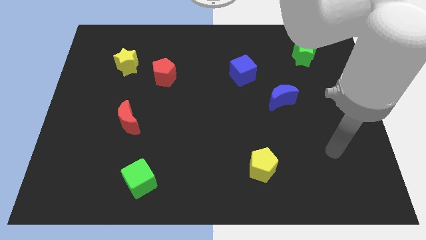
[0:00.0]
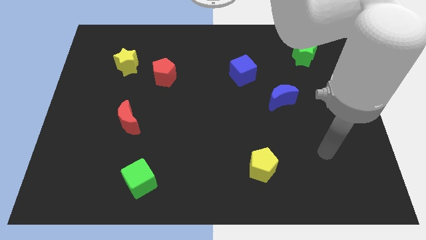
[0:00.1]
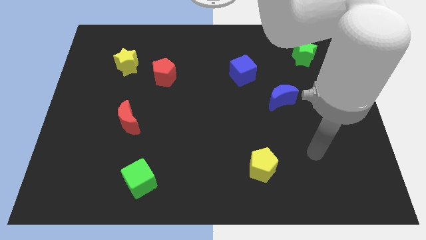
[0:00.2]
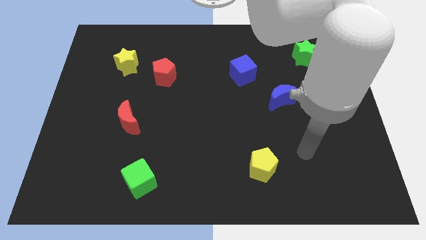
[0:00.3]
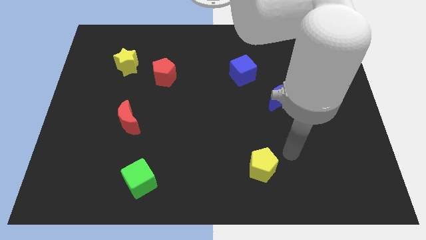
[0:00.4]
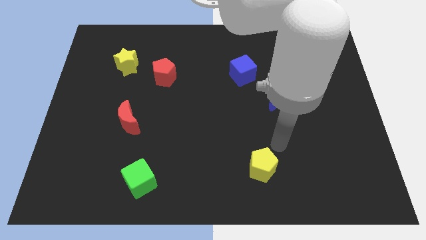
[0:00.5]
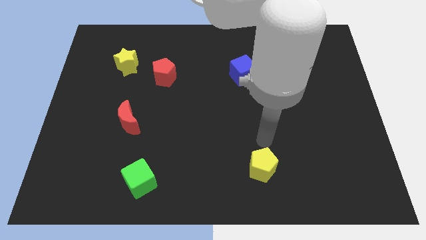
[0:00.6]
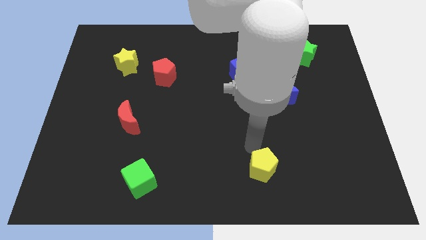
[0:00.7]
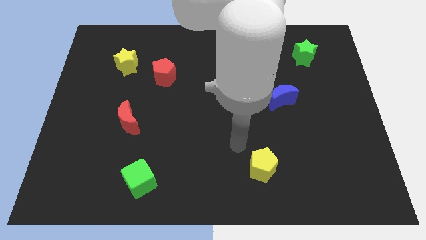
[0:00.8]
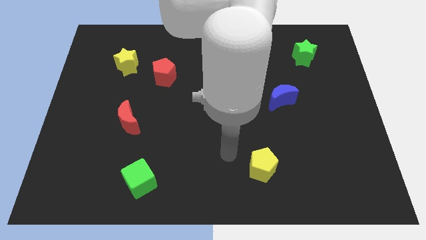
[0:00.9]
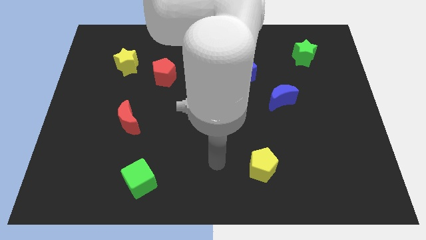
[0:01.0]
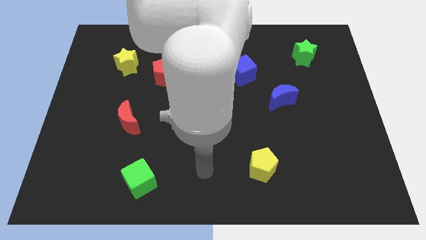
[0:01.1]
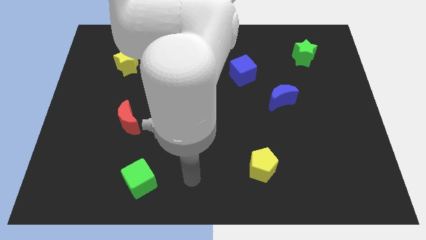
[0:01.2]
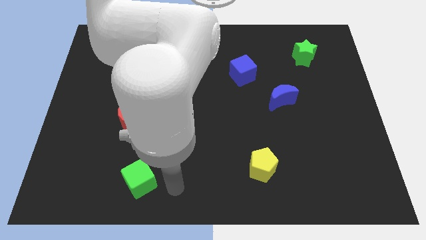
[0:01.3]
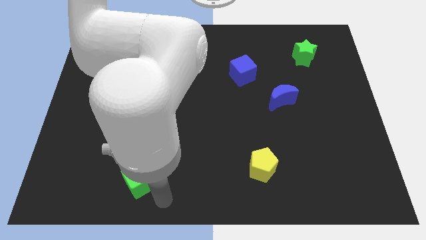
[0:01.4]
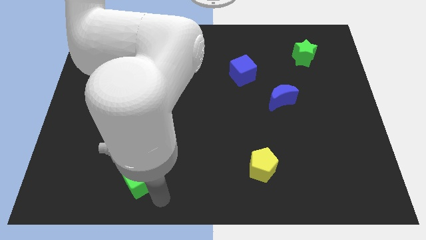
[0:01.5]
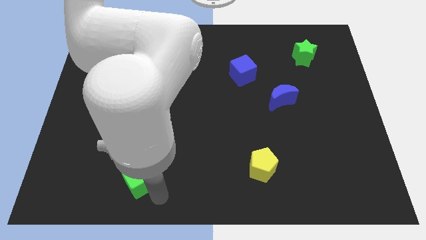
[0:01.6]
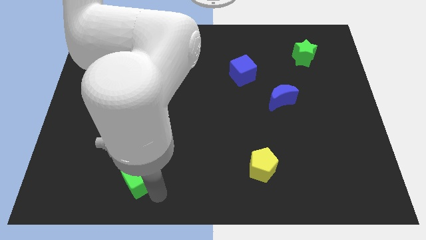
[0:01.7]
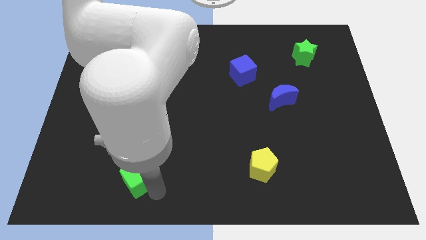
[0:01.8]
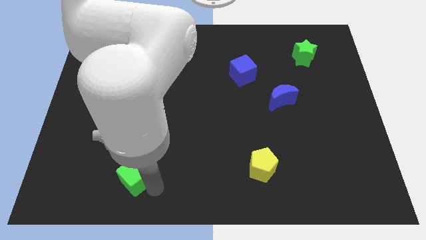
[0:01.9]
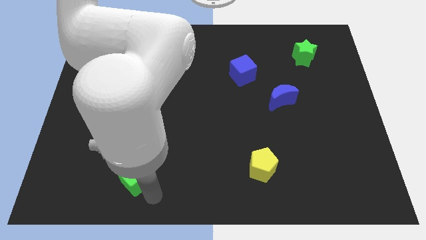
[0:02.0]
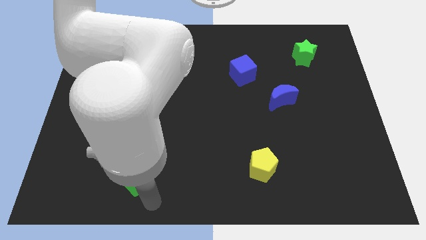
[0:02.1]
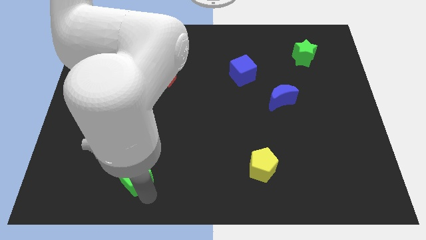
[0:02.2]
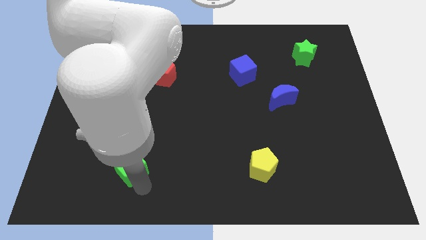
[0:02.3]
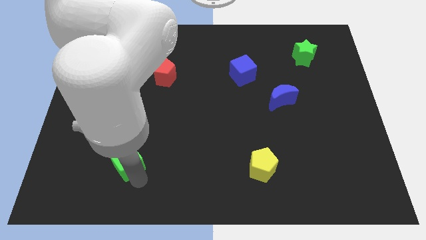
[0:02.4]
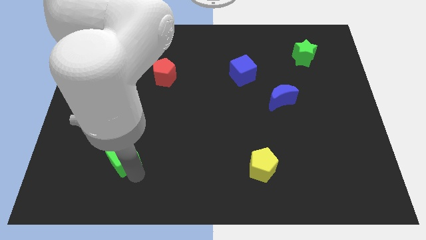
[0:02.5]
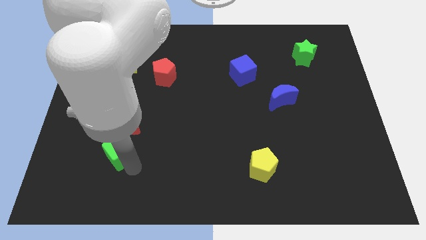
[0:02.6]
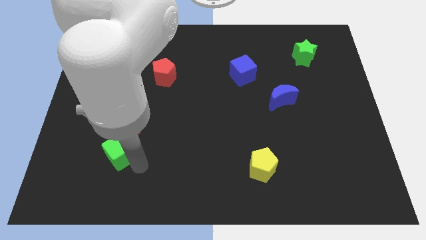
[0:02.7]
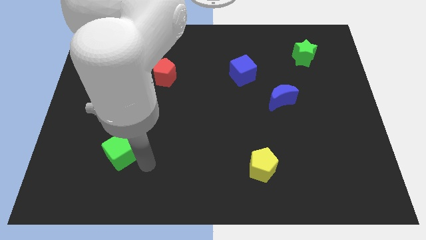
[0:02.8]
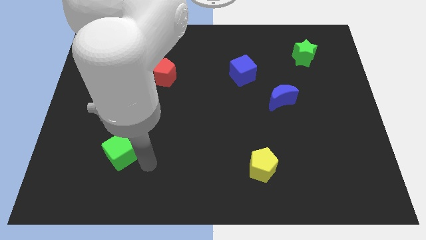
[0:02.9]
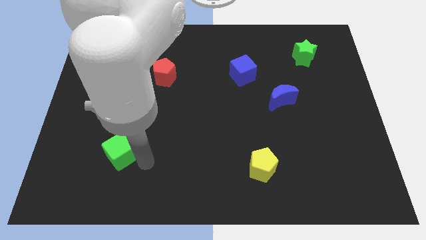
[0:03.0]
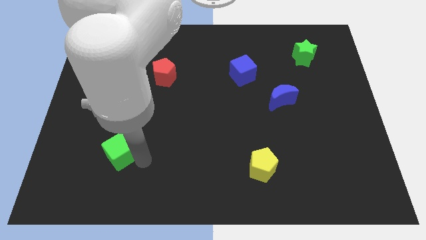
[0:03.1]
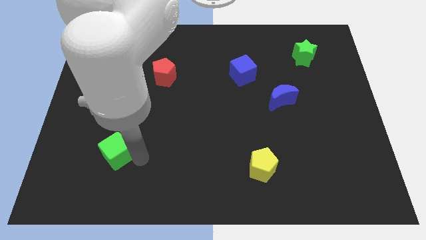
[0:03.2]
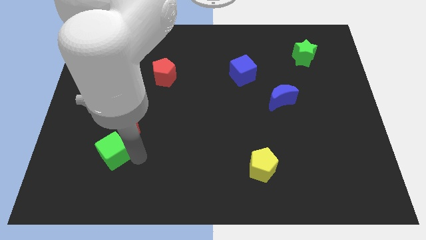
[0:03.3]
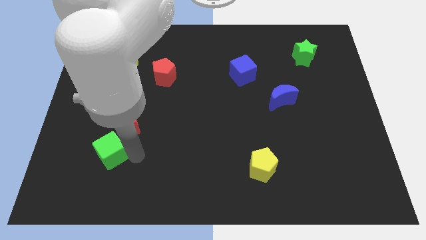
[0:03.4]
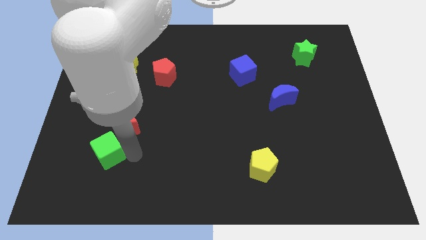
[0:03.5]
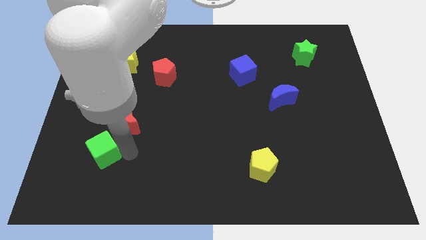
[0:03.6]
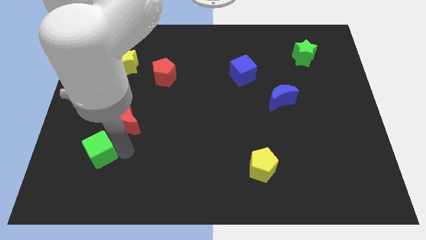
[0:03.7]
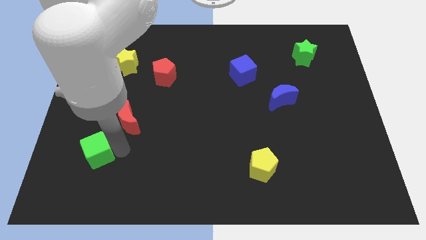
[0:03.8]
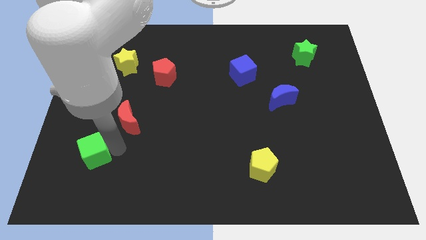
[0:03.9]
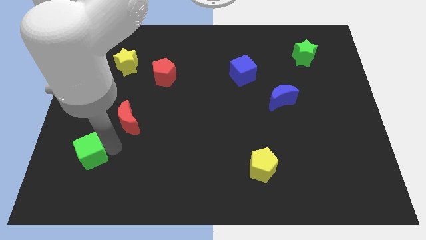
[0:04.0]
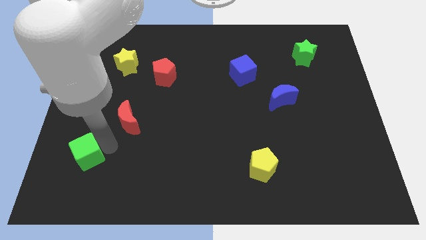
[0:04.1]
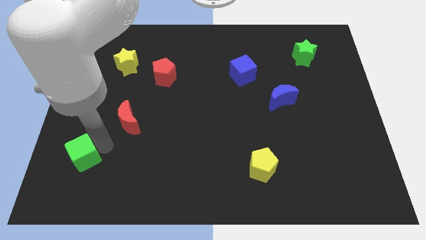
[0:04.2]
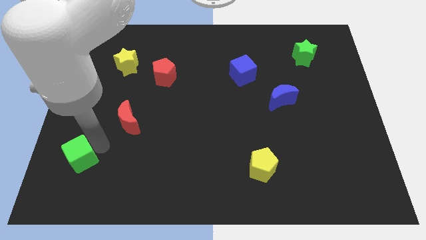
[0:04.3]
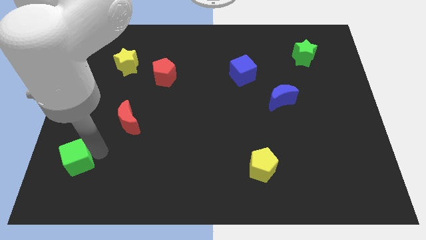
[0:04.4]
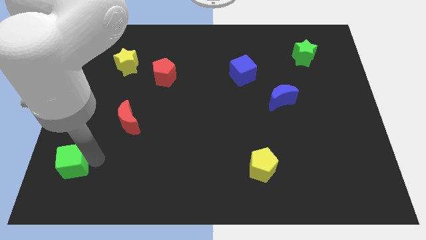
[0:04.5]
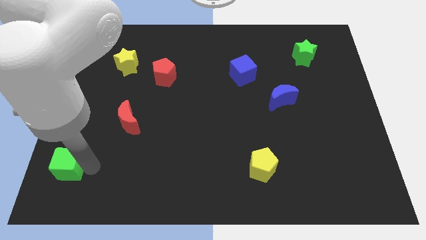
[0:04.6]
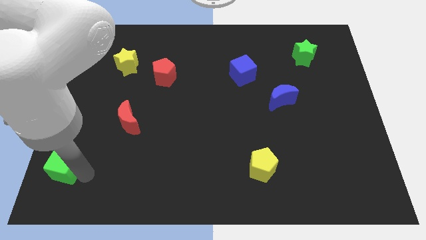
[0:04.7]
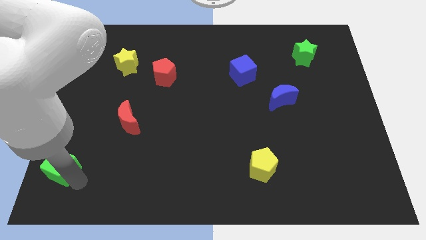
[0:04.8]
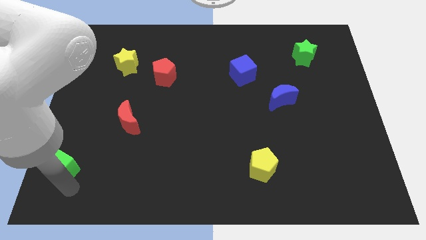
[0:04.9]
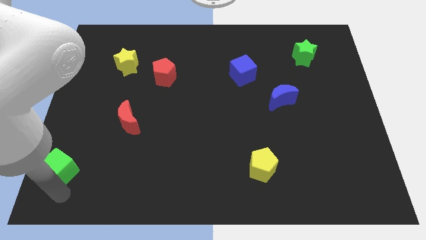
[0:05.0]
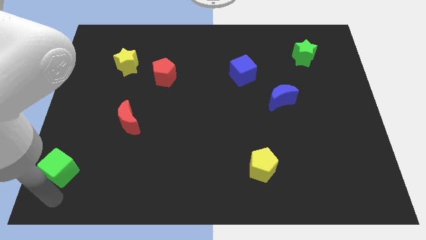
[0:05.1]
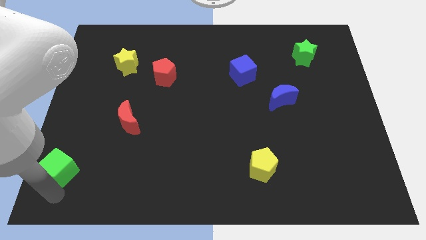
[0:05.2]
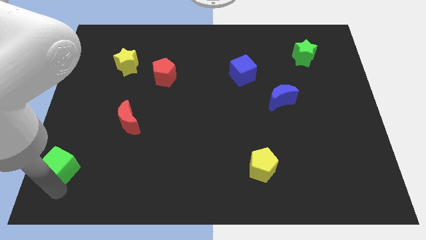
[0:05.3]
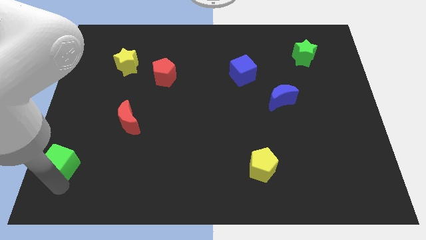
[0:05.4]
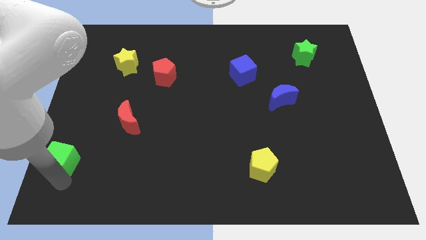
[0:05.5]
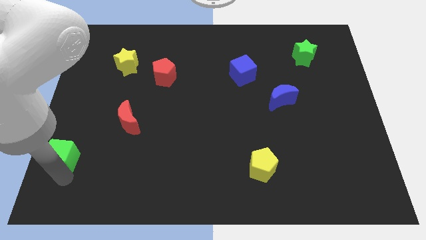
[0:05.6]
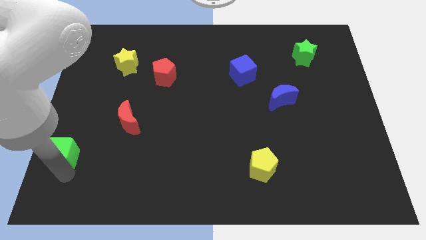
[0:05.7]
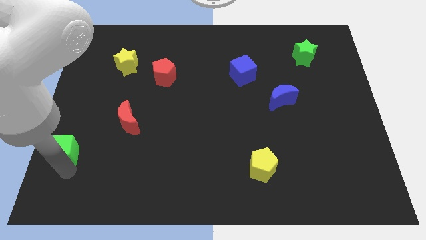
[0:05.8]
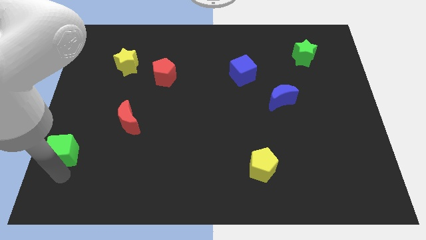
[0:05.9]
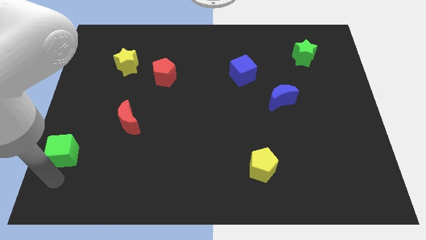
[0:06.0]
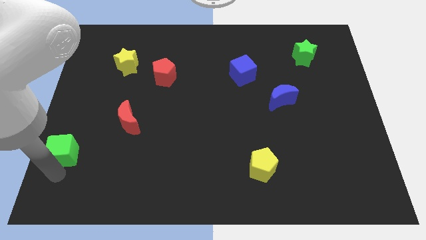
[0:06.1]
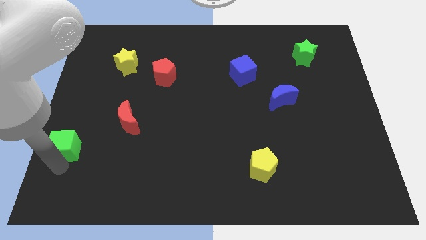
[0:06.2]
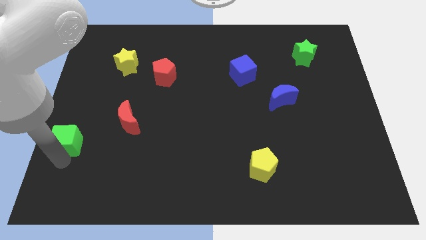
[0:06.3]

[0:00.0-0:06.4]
push the green cube to the center left
